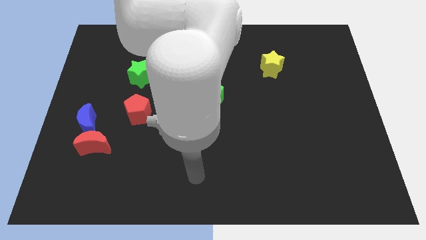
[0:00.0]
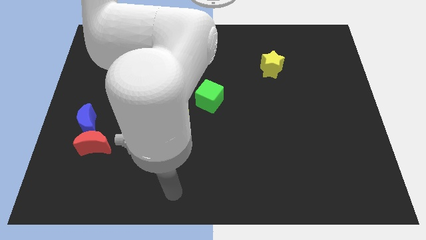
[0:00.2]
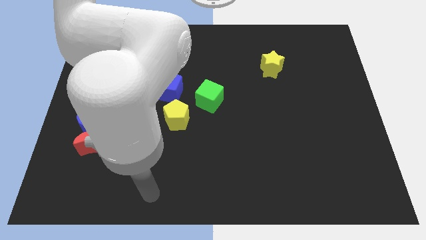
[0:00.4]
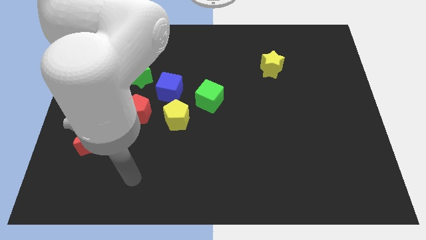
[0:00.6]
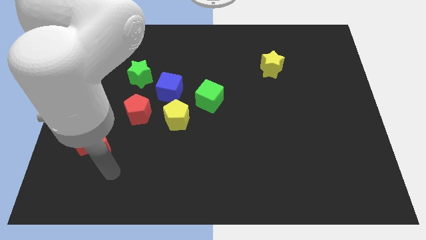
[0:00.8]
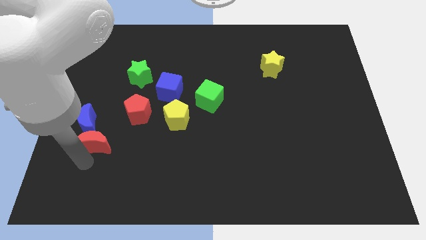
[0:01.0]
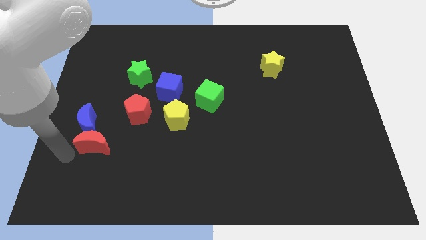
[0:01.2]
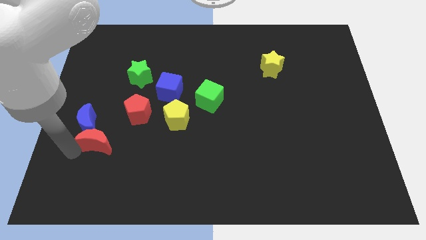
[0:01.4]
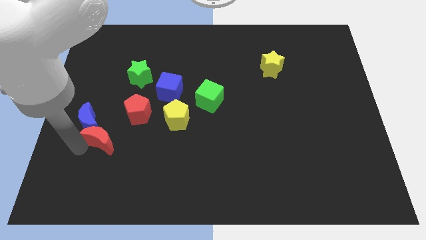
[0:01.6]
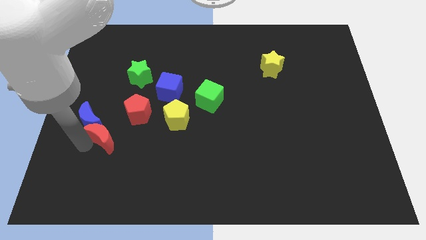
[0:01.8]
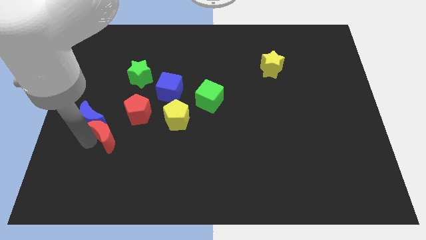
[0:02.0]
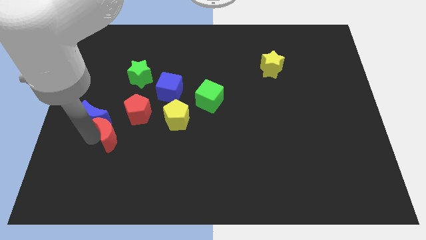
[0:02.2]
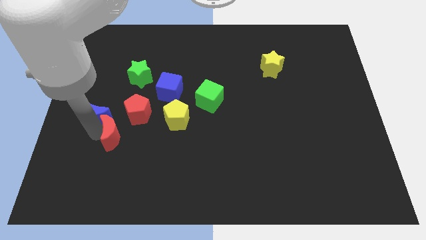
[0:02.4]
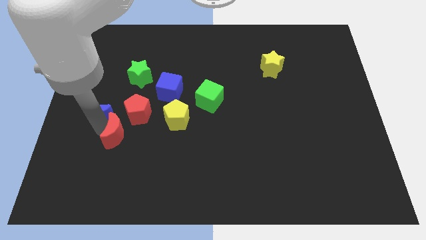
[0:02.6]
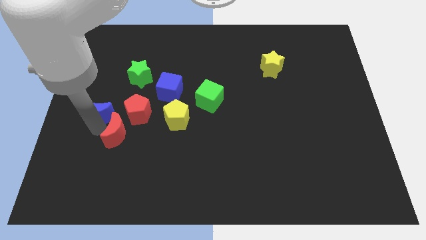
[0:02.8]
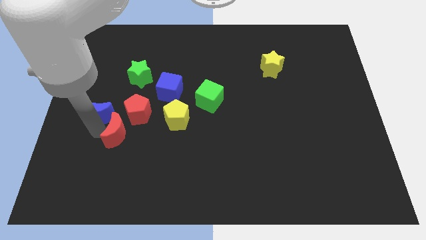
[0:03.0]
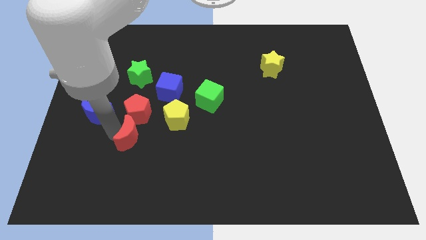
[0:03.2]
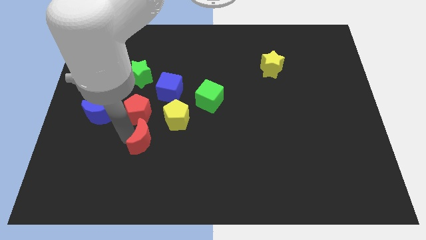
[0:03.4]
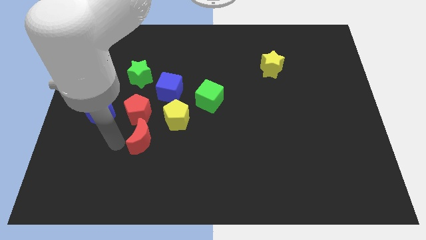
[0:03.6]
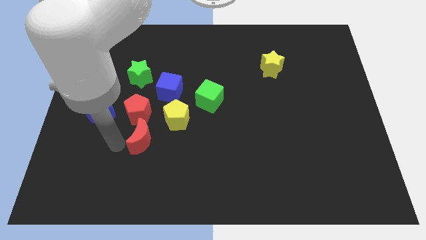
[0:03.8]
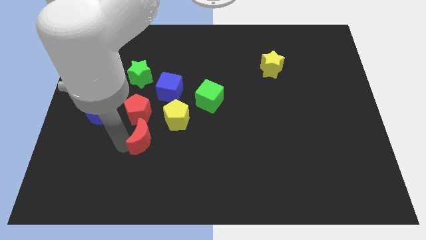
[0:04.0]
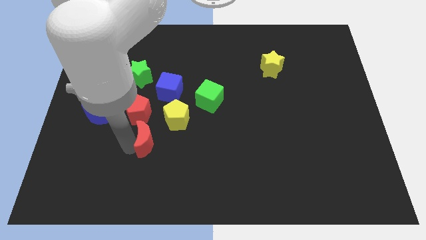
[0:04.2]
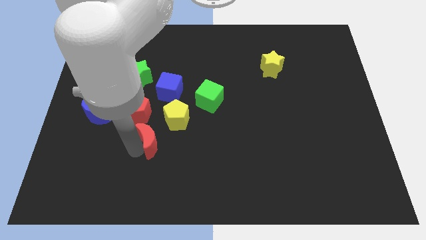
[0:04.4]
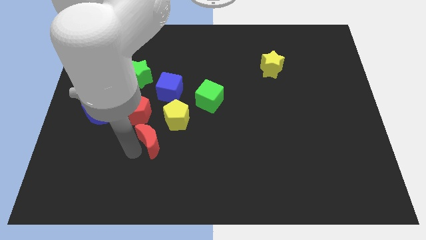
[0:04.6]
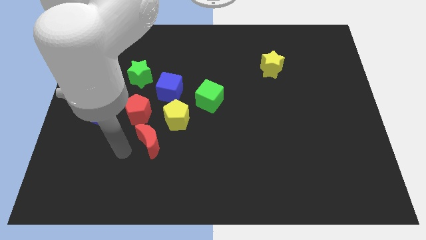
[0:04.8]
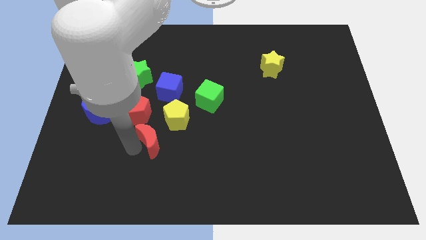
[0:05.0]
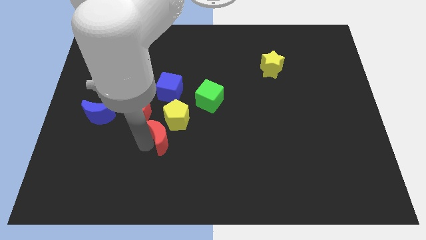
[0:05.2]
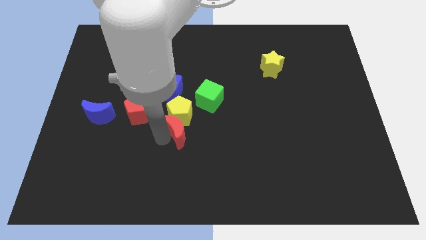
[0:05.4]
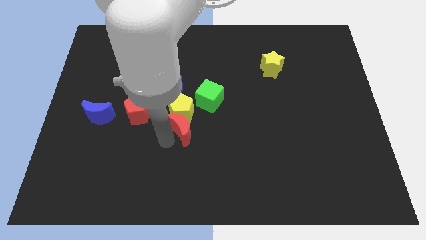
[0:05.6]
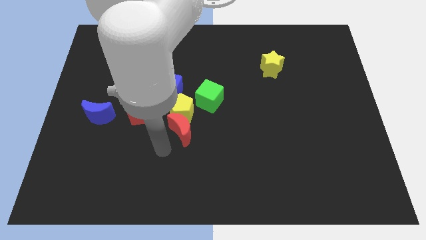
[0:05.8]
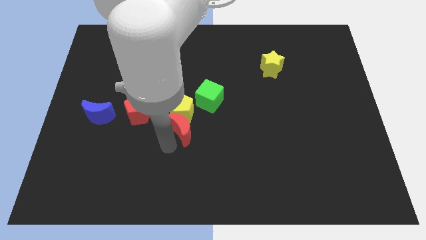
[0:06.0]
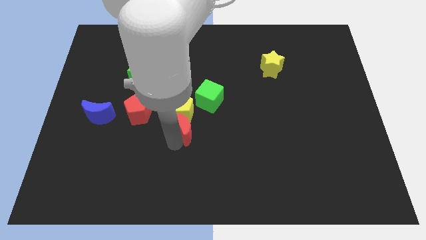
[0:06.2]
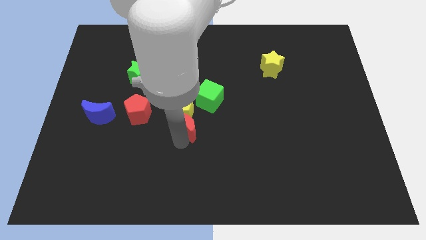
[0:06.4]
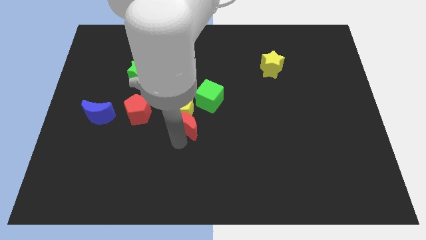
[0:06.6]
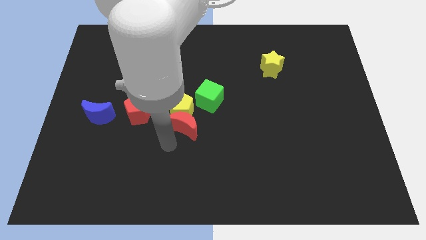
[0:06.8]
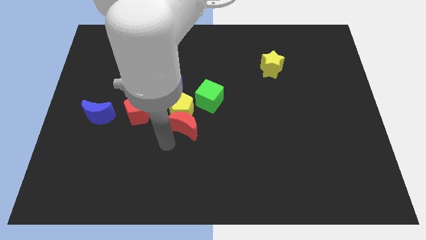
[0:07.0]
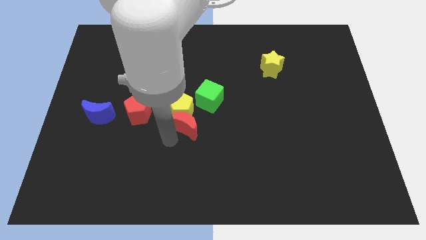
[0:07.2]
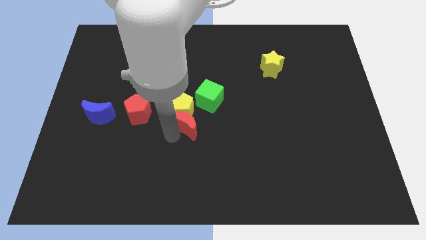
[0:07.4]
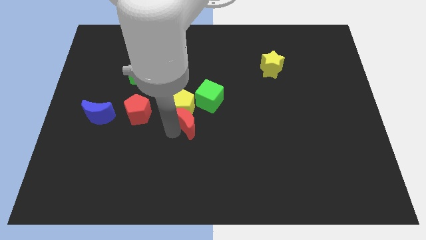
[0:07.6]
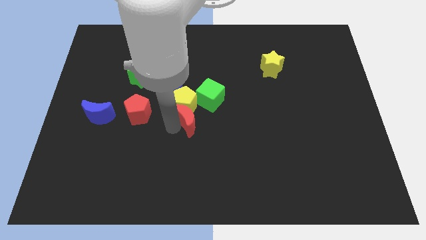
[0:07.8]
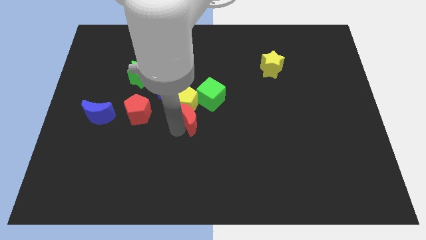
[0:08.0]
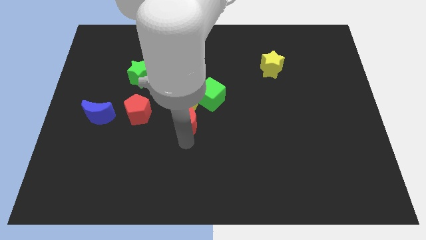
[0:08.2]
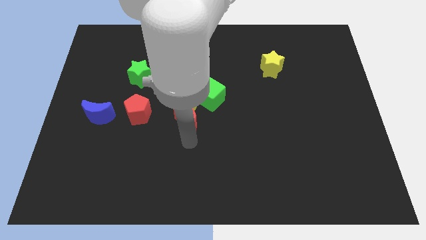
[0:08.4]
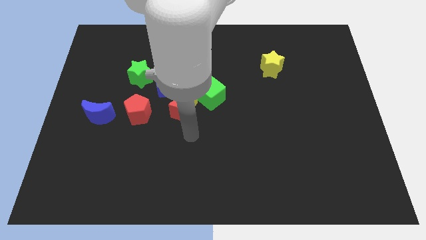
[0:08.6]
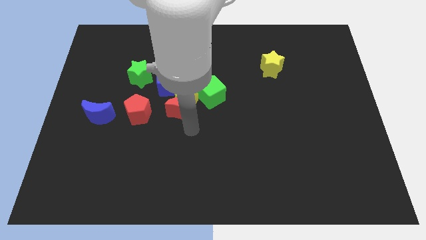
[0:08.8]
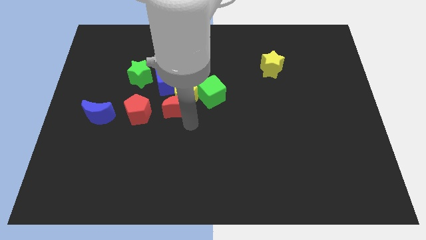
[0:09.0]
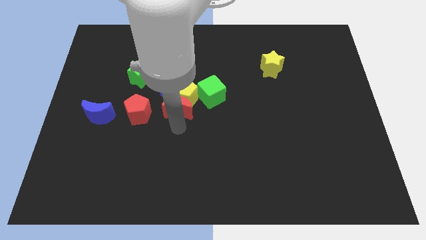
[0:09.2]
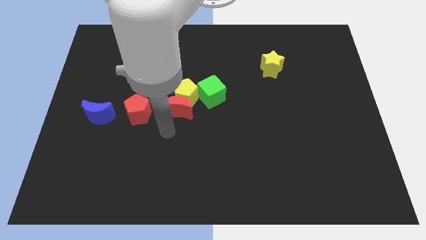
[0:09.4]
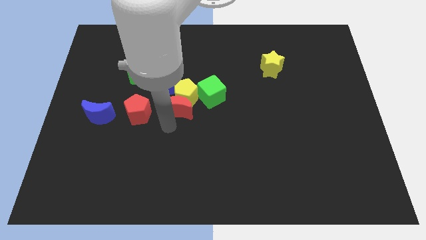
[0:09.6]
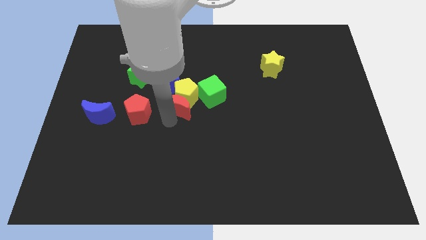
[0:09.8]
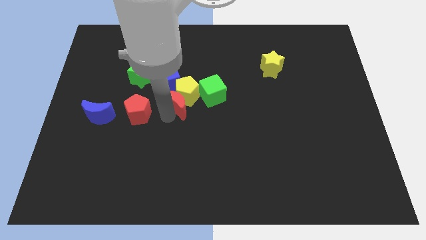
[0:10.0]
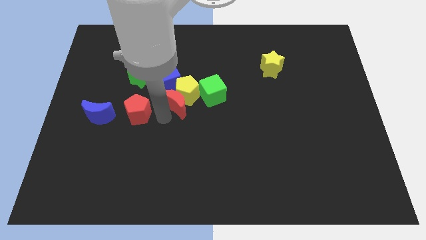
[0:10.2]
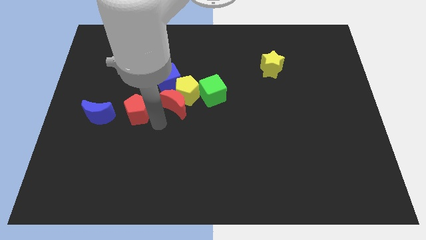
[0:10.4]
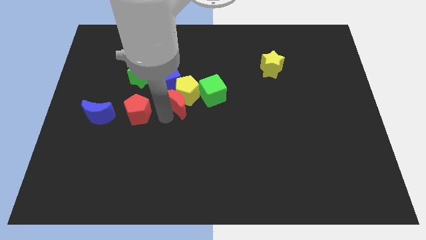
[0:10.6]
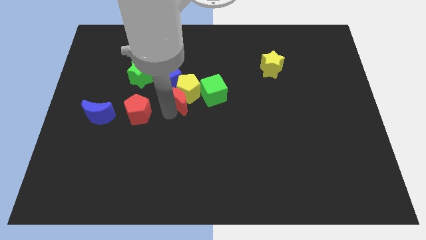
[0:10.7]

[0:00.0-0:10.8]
move the red moon up and right diagonally

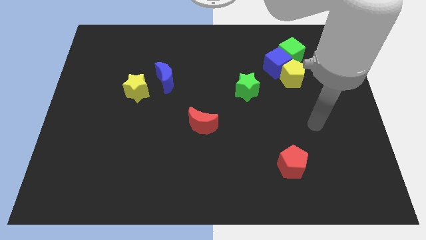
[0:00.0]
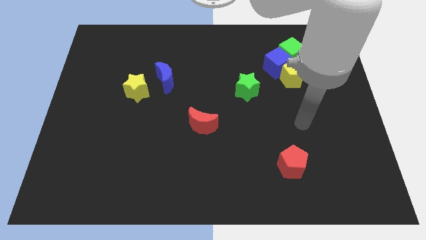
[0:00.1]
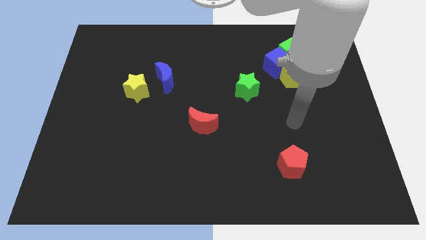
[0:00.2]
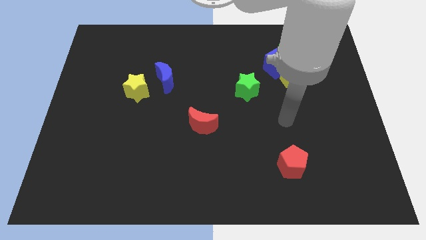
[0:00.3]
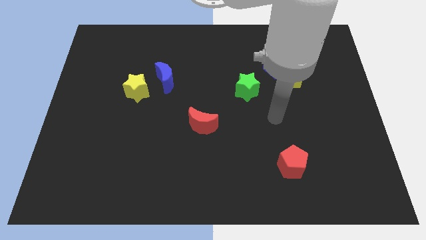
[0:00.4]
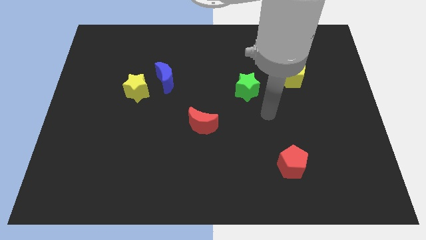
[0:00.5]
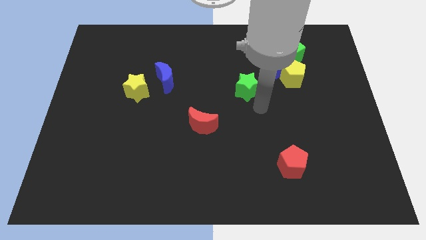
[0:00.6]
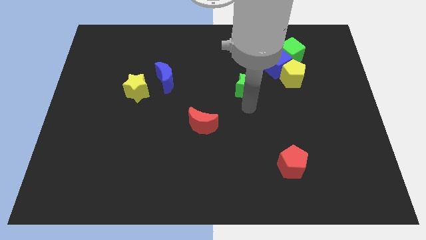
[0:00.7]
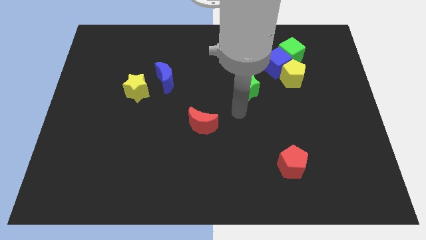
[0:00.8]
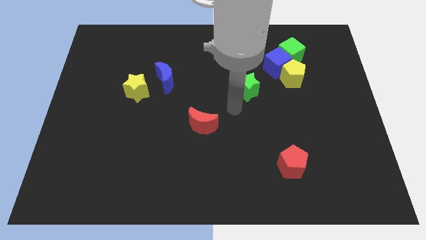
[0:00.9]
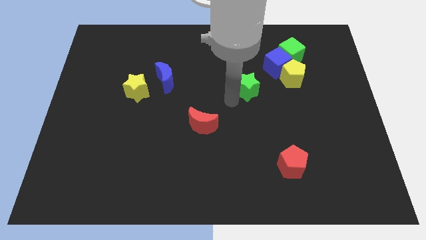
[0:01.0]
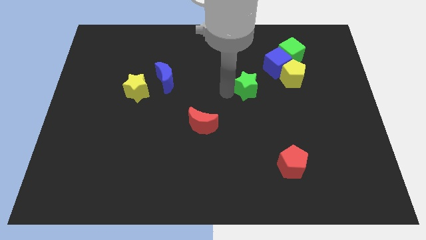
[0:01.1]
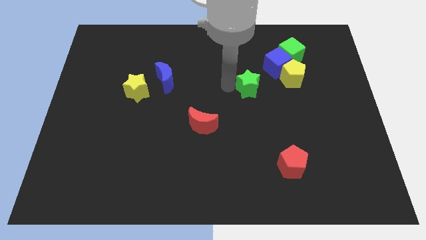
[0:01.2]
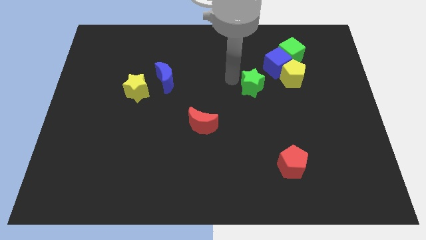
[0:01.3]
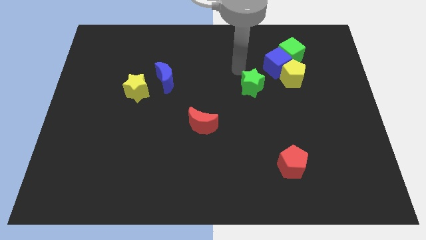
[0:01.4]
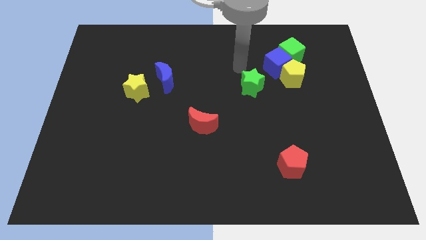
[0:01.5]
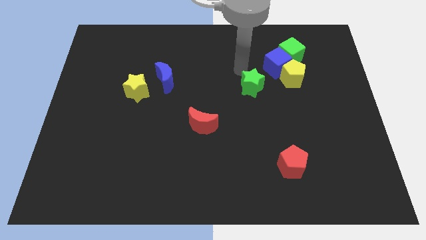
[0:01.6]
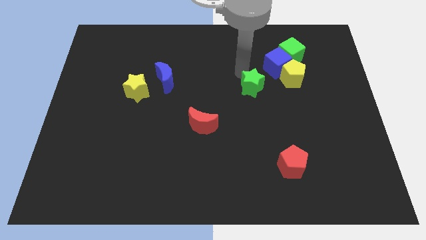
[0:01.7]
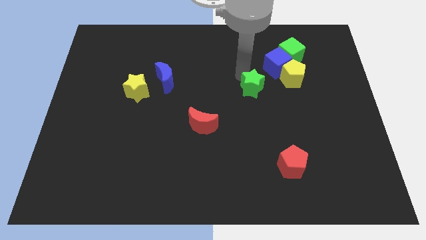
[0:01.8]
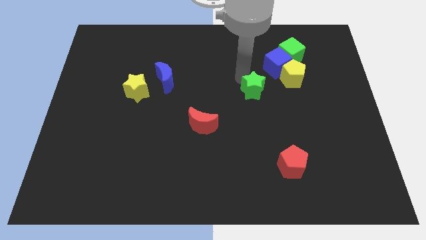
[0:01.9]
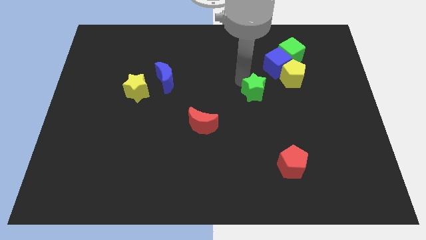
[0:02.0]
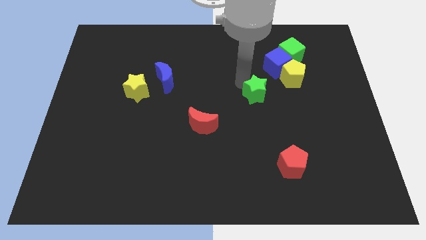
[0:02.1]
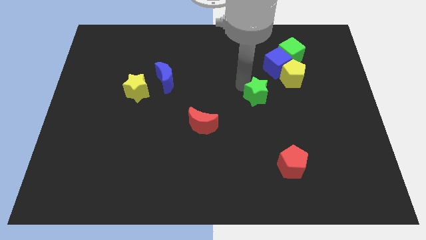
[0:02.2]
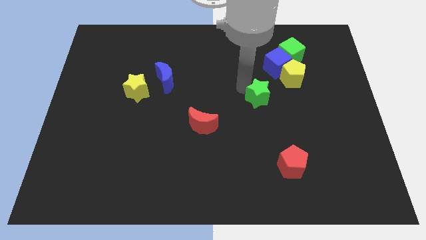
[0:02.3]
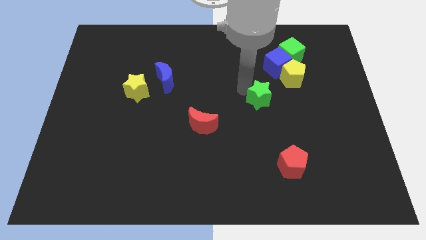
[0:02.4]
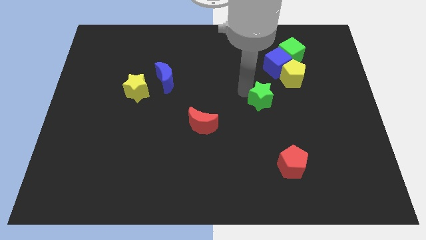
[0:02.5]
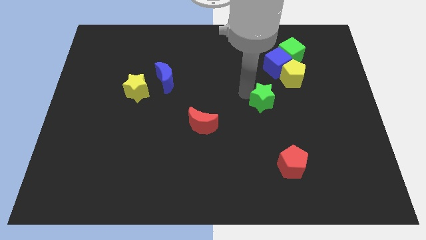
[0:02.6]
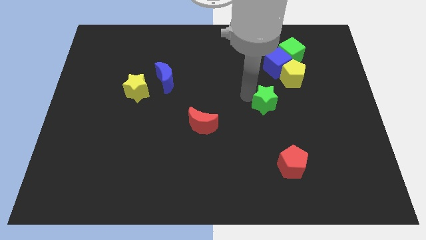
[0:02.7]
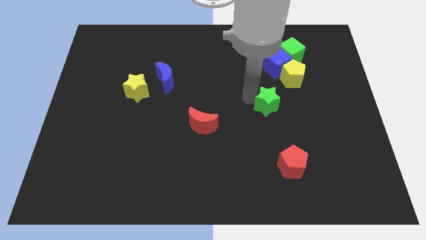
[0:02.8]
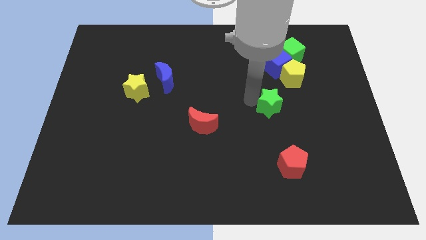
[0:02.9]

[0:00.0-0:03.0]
push the green star somewhat down and then to the right
